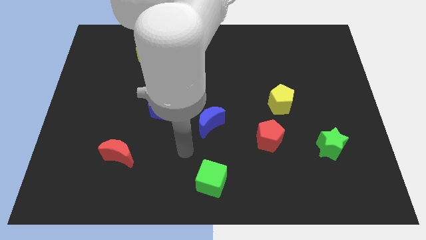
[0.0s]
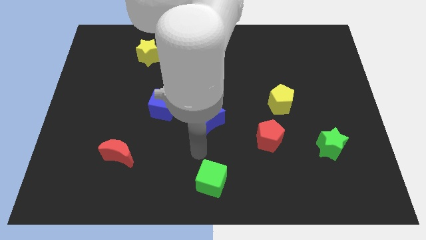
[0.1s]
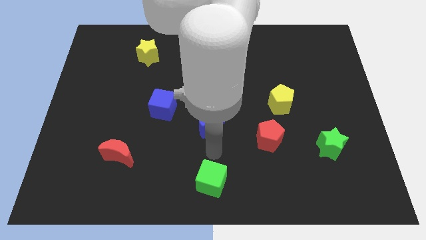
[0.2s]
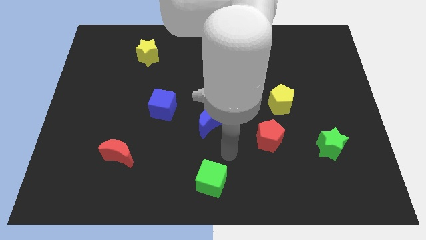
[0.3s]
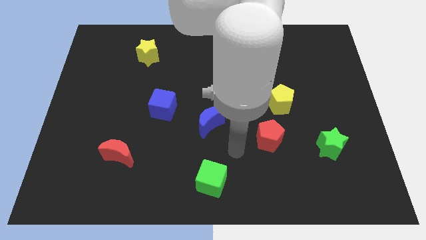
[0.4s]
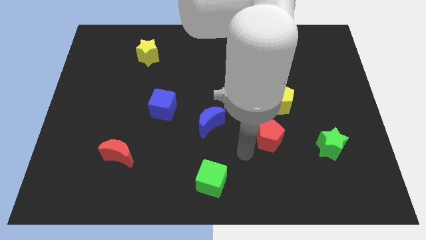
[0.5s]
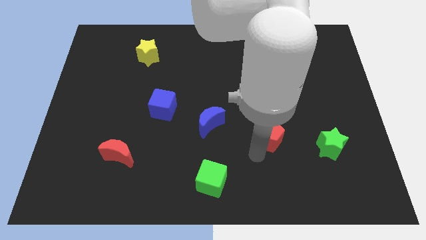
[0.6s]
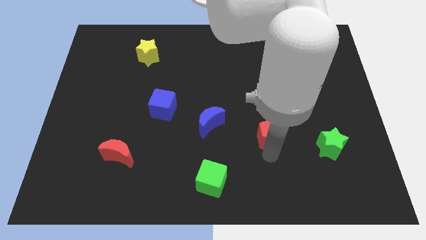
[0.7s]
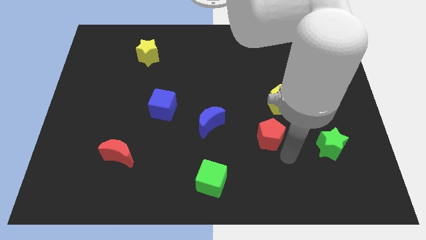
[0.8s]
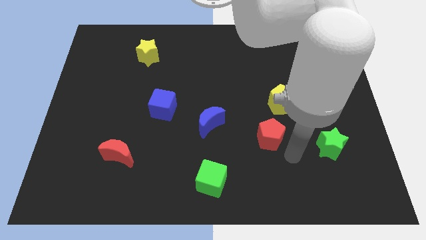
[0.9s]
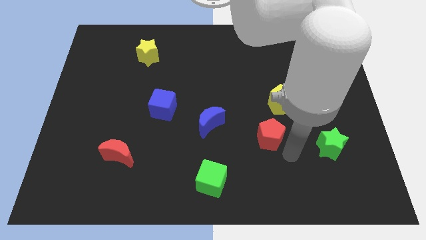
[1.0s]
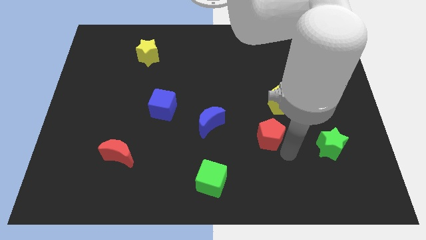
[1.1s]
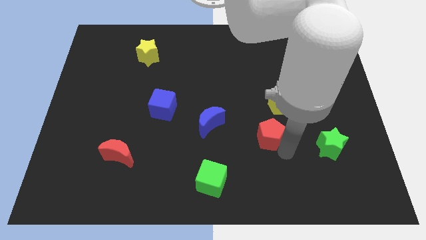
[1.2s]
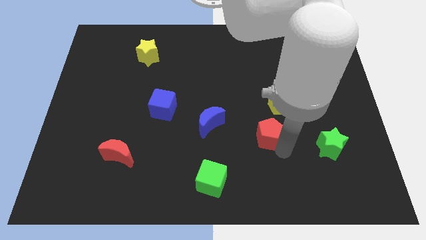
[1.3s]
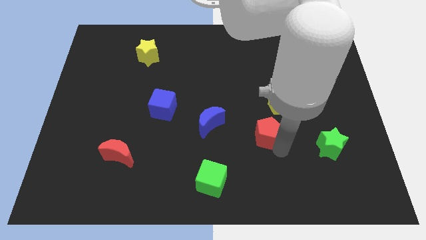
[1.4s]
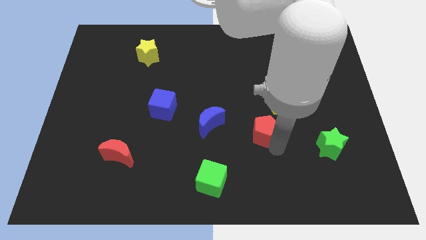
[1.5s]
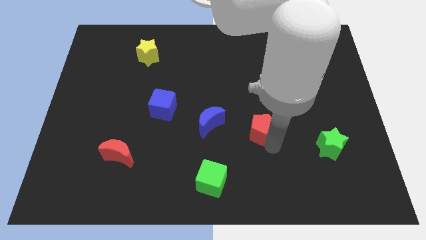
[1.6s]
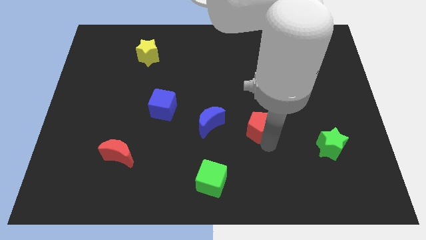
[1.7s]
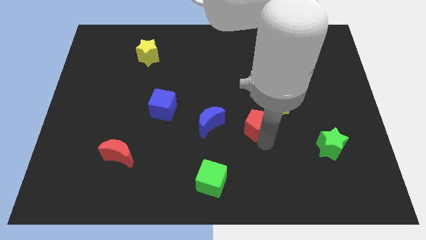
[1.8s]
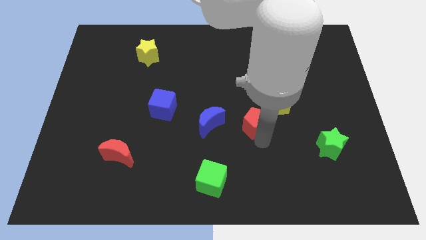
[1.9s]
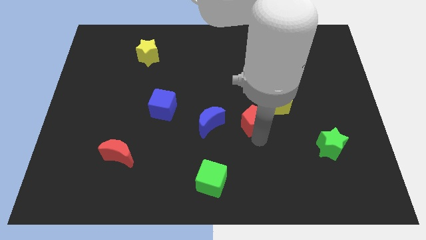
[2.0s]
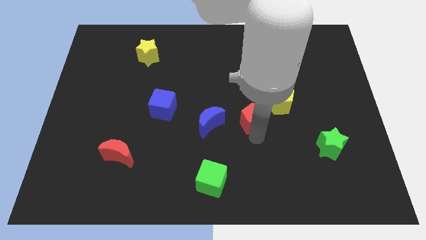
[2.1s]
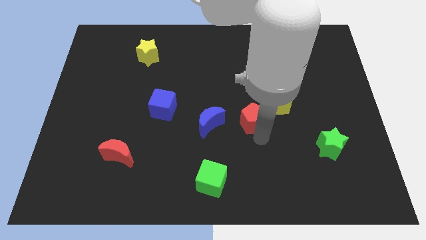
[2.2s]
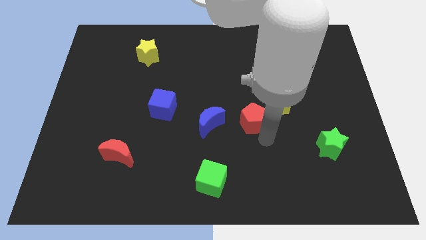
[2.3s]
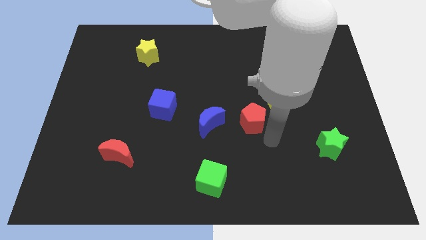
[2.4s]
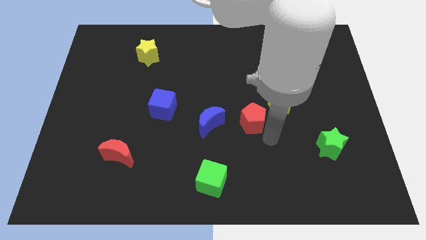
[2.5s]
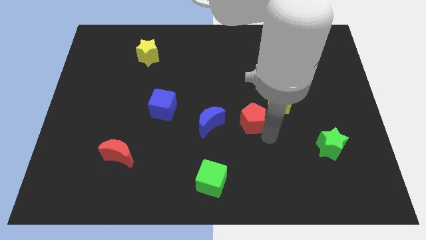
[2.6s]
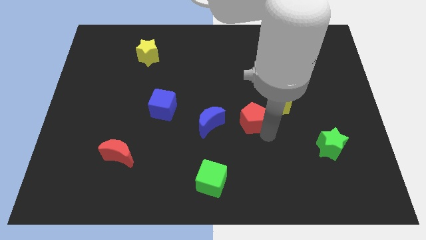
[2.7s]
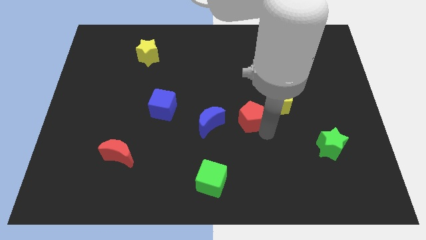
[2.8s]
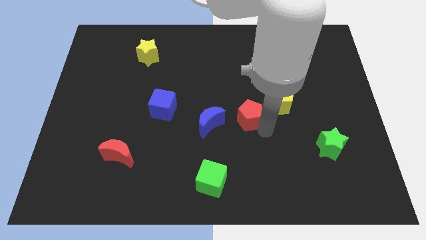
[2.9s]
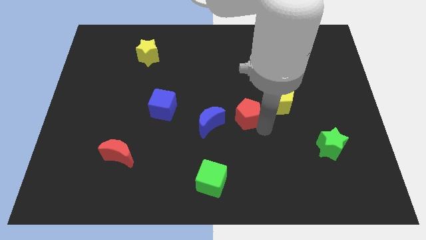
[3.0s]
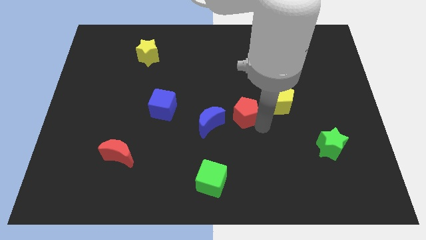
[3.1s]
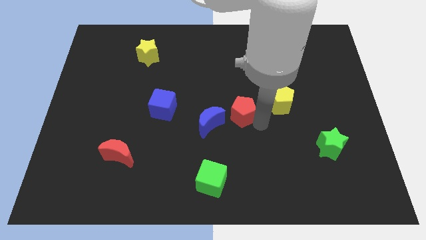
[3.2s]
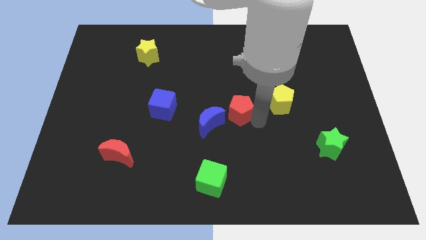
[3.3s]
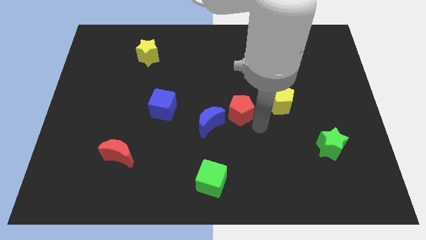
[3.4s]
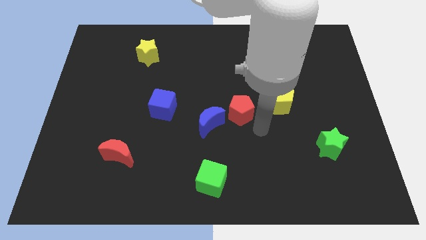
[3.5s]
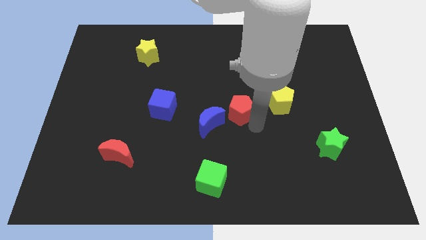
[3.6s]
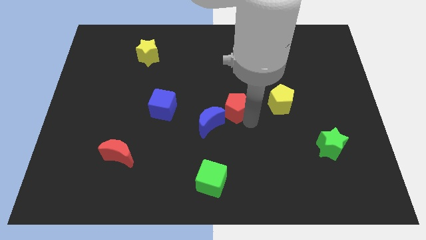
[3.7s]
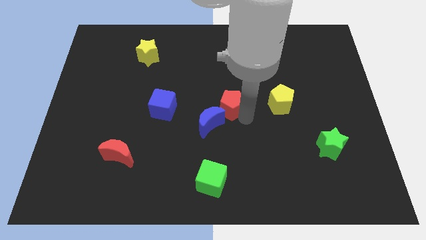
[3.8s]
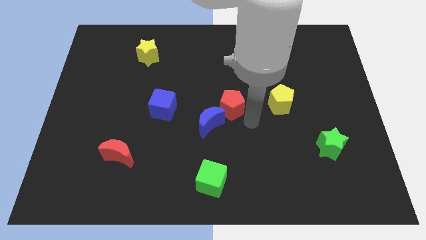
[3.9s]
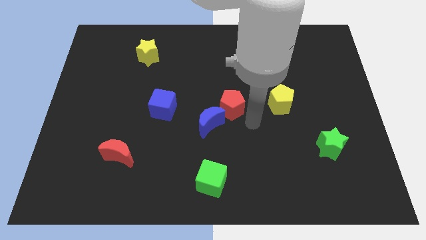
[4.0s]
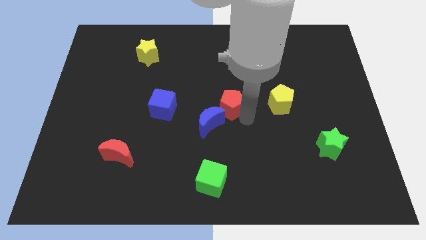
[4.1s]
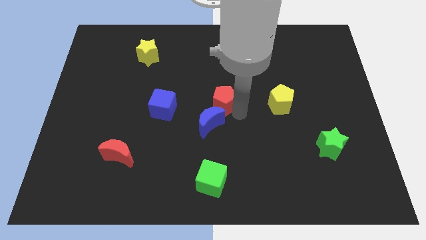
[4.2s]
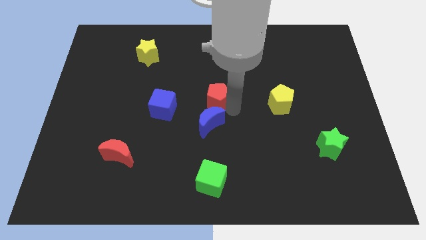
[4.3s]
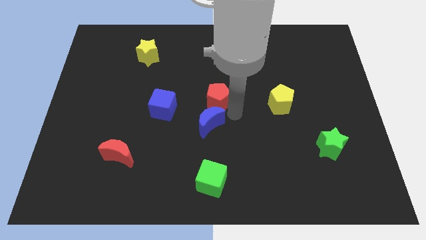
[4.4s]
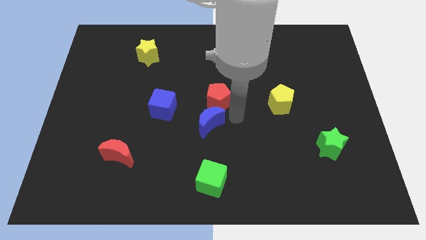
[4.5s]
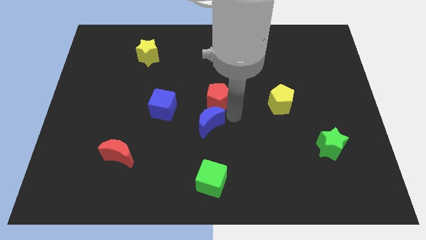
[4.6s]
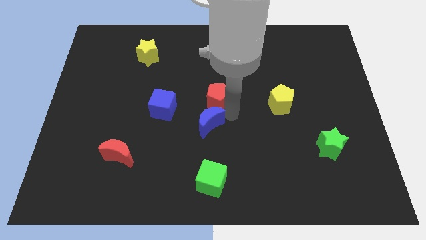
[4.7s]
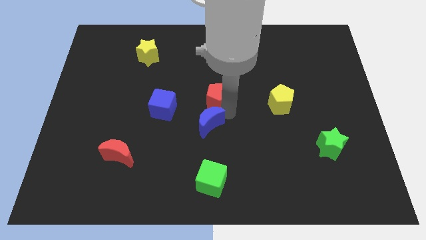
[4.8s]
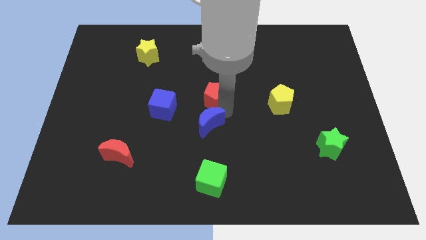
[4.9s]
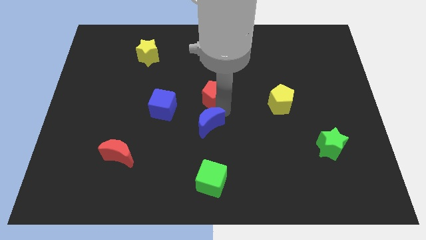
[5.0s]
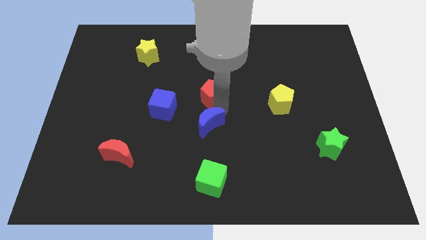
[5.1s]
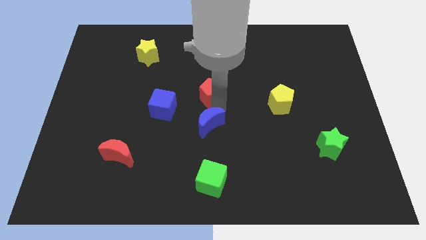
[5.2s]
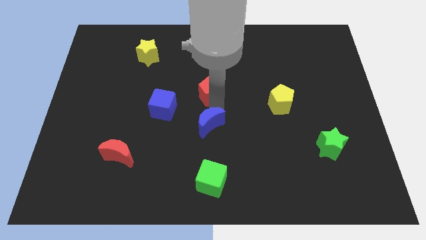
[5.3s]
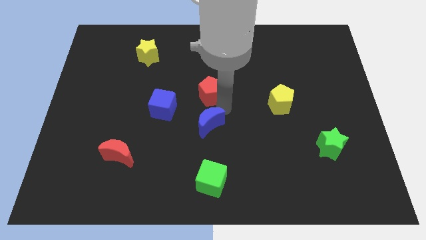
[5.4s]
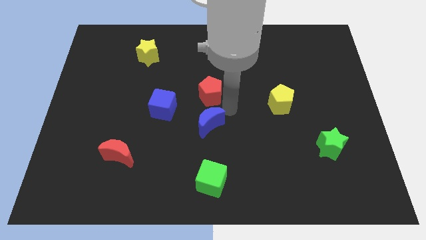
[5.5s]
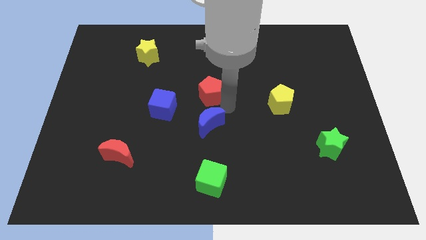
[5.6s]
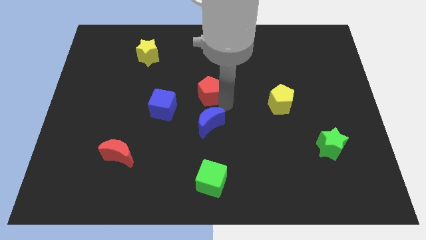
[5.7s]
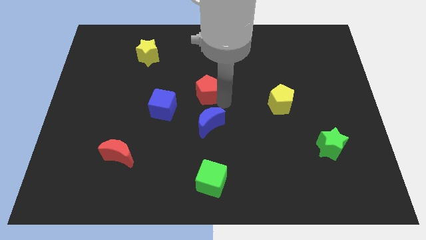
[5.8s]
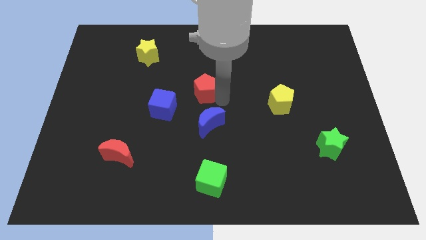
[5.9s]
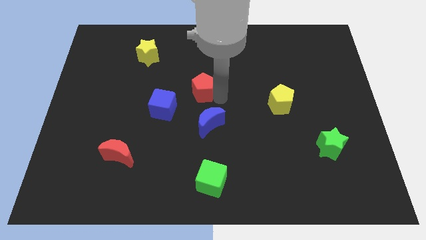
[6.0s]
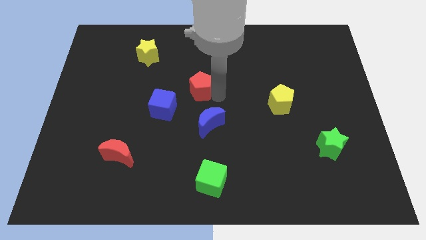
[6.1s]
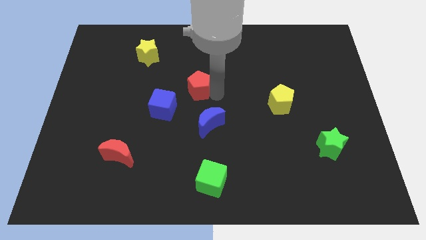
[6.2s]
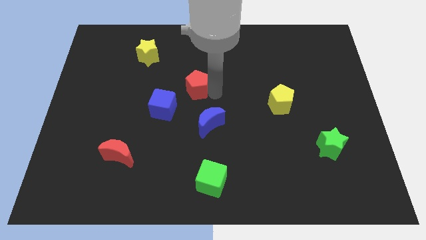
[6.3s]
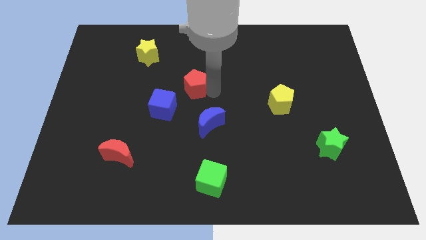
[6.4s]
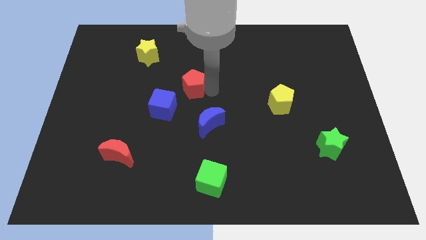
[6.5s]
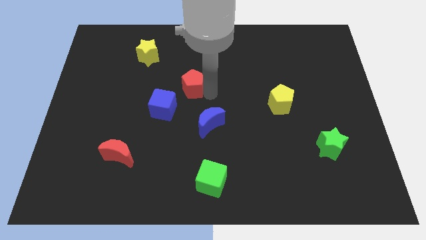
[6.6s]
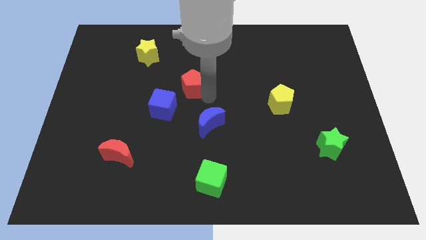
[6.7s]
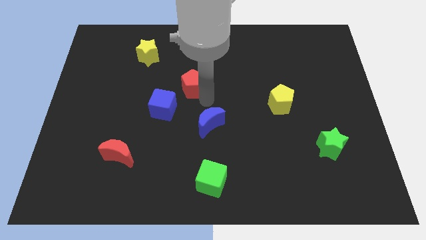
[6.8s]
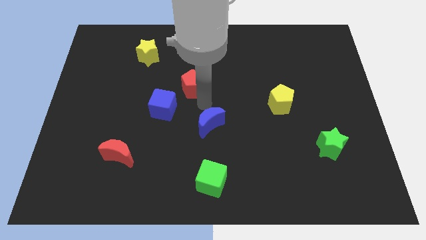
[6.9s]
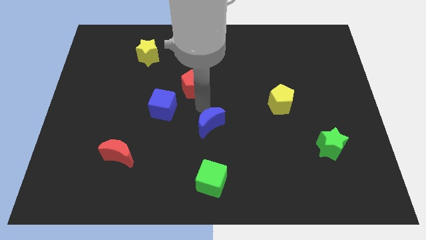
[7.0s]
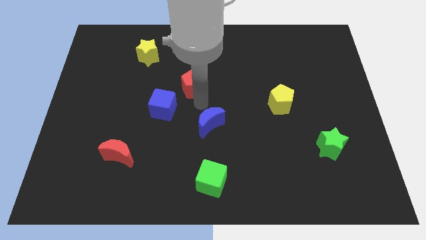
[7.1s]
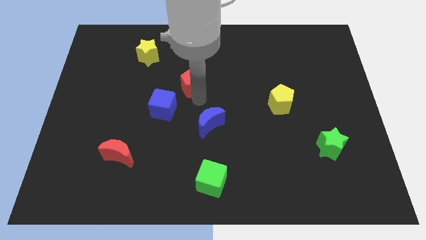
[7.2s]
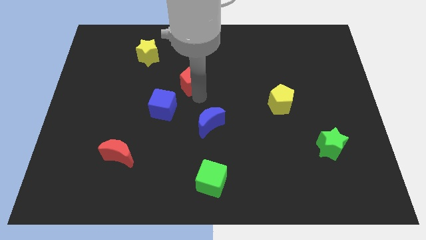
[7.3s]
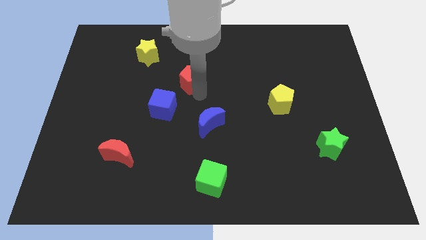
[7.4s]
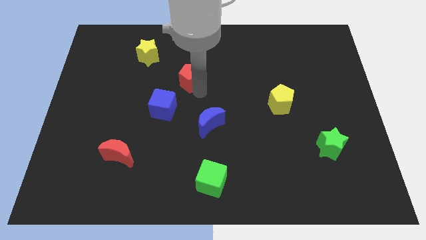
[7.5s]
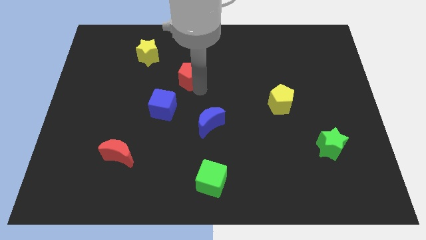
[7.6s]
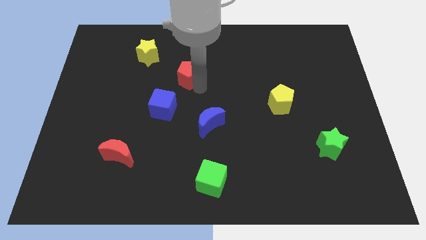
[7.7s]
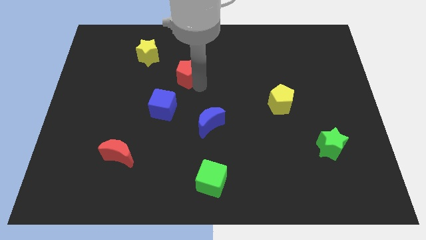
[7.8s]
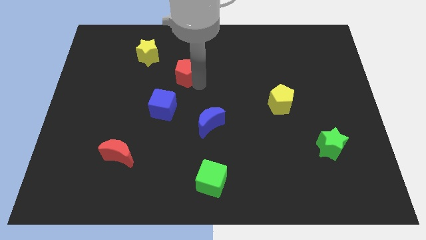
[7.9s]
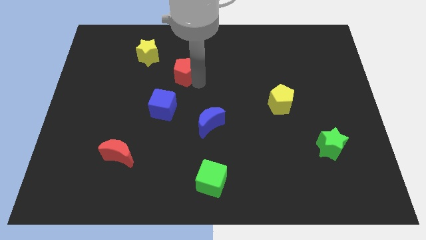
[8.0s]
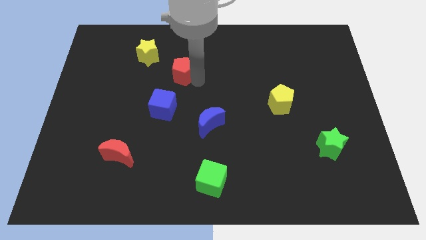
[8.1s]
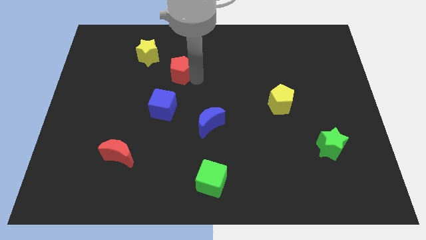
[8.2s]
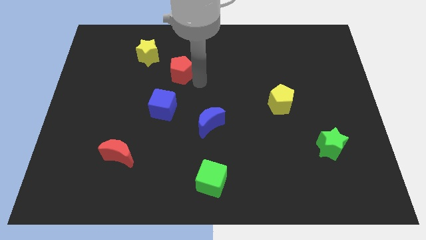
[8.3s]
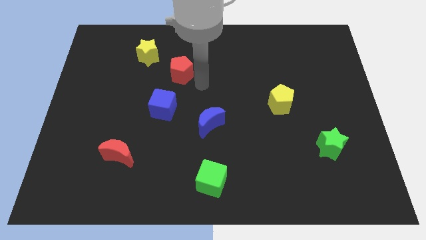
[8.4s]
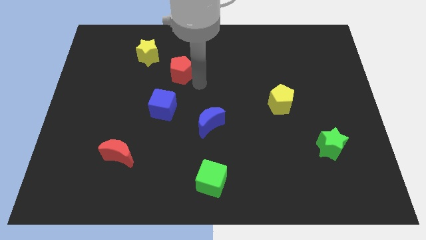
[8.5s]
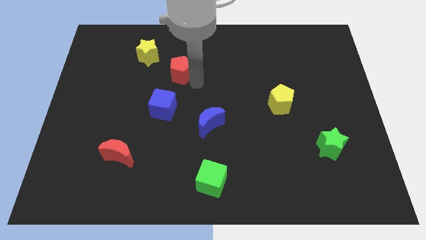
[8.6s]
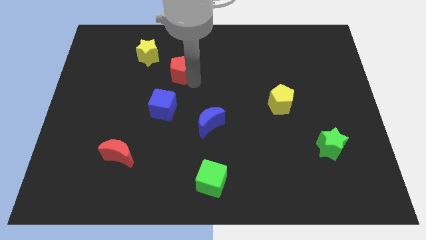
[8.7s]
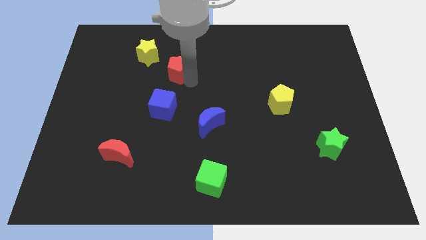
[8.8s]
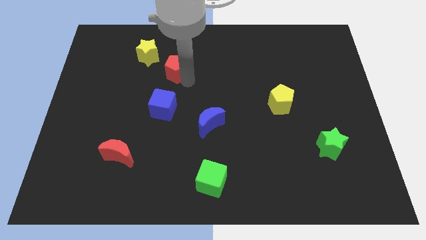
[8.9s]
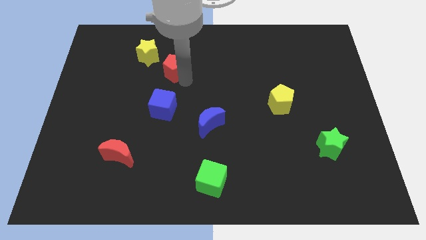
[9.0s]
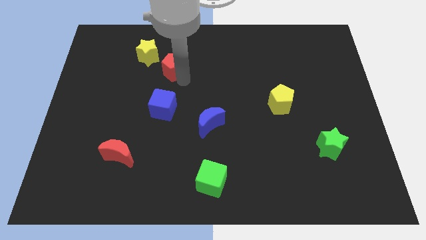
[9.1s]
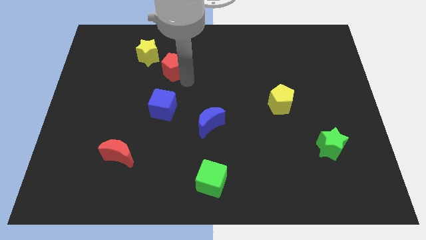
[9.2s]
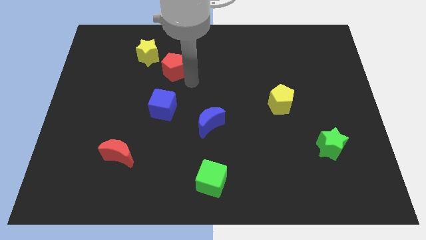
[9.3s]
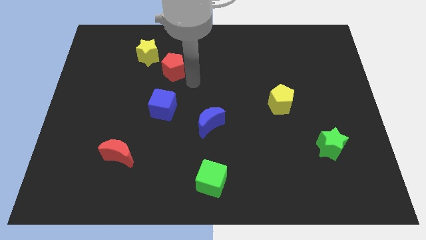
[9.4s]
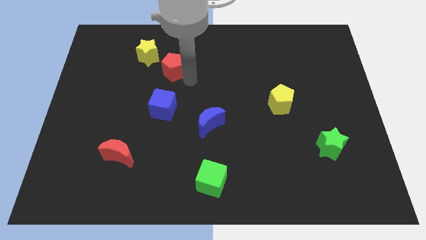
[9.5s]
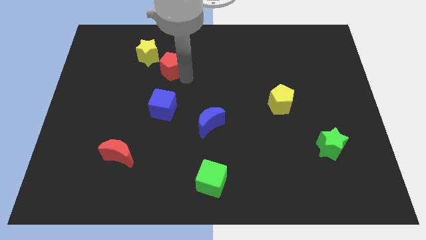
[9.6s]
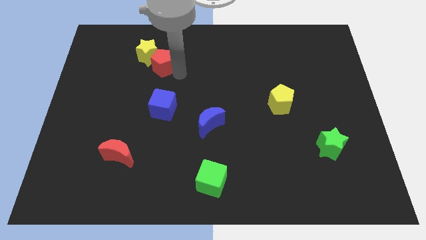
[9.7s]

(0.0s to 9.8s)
put the red pentagon to the yellow star
